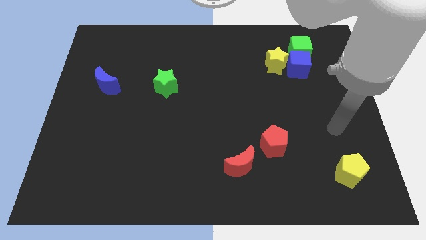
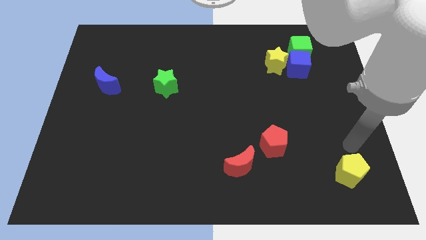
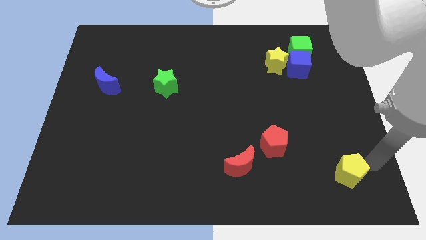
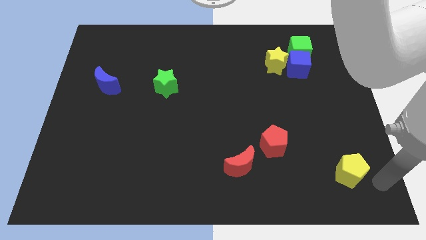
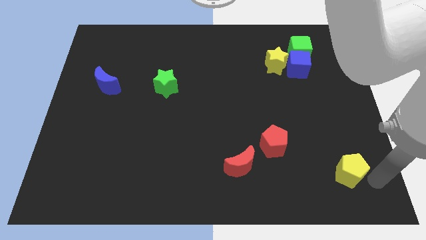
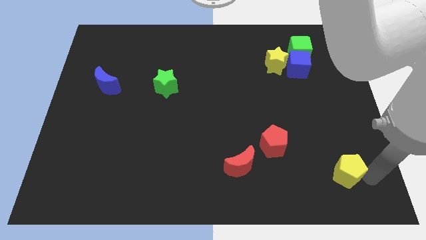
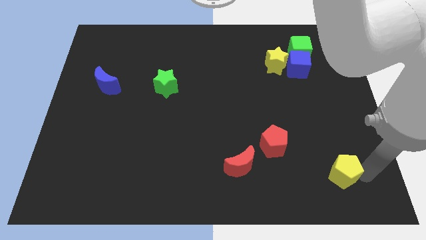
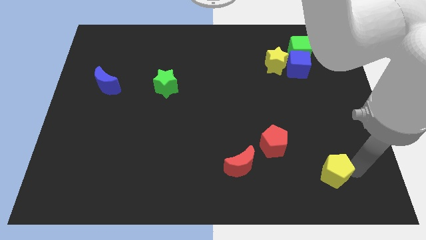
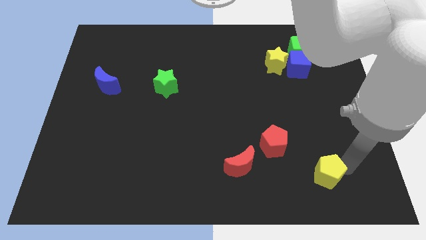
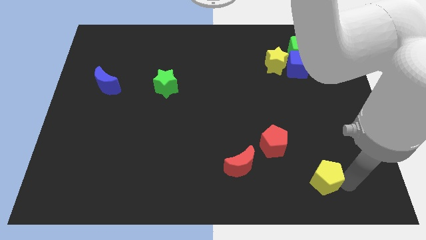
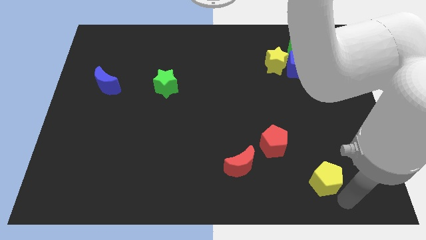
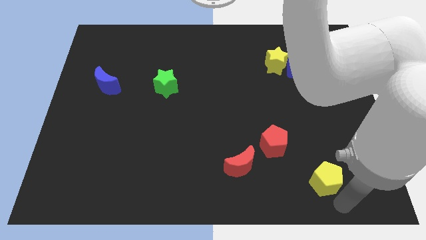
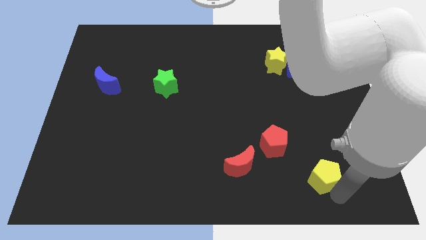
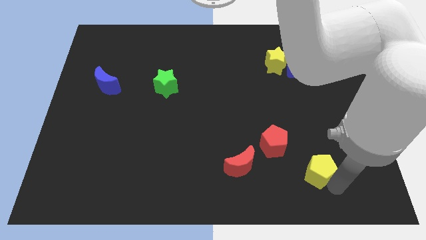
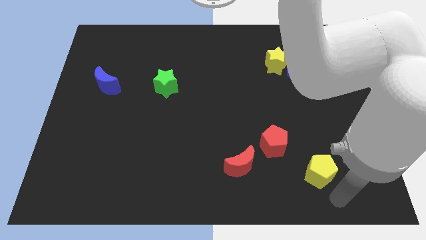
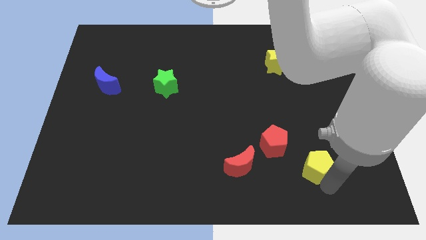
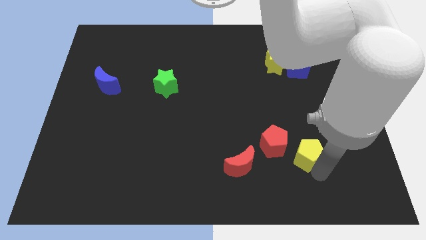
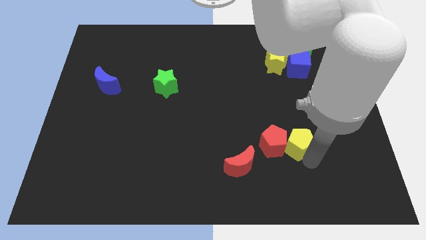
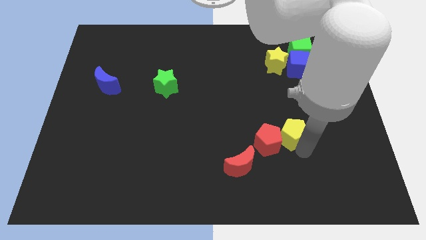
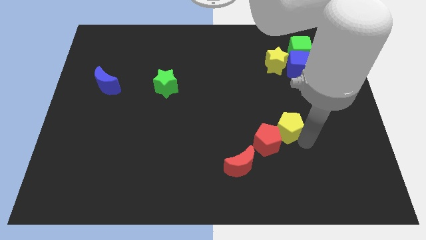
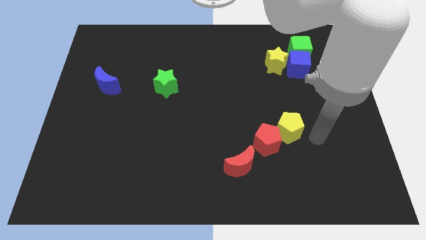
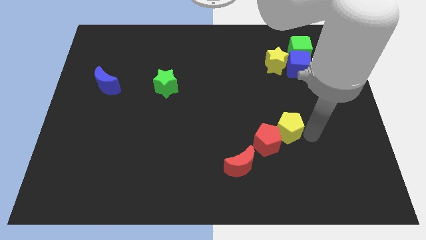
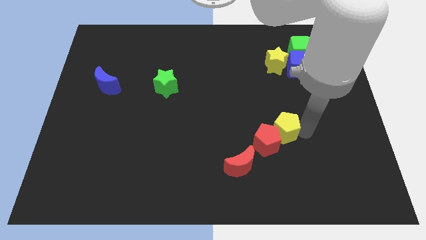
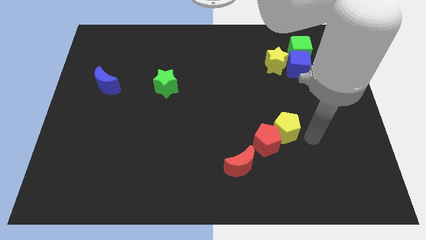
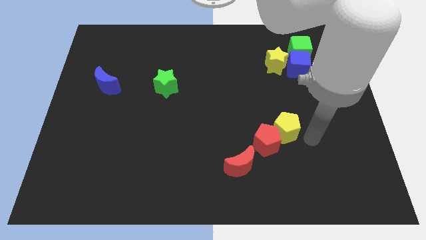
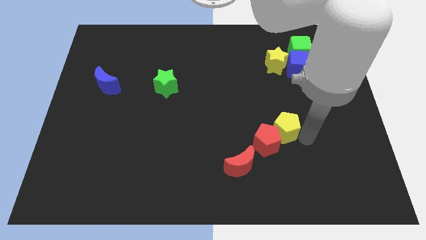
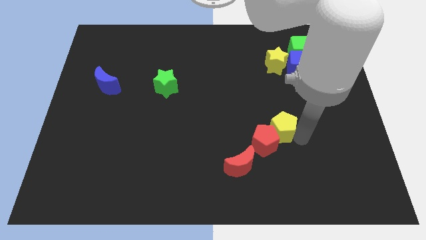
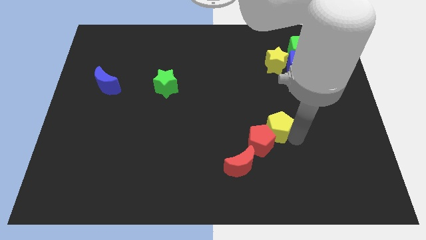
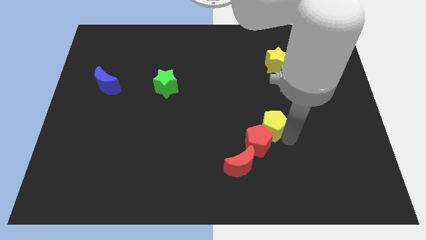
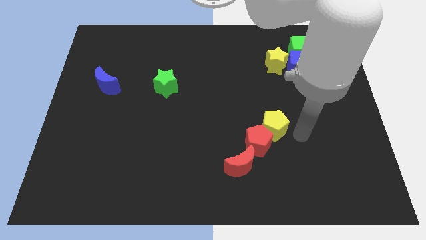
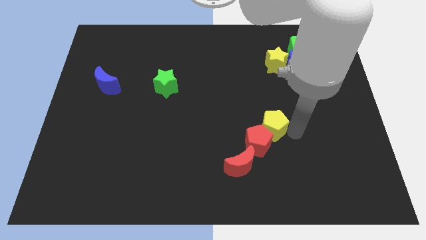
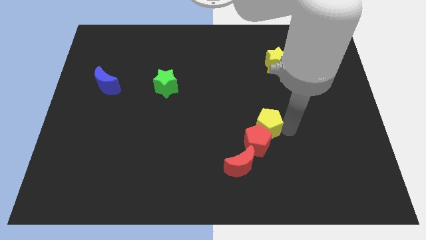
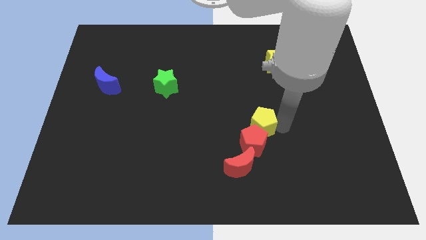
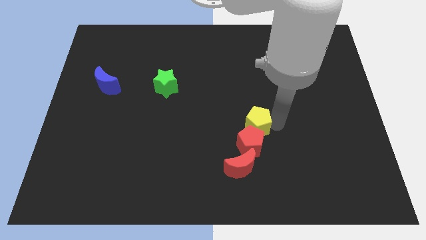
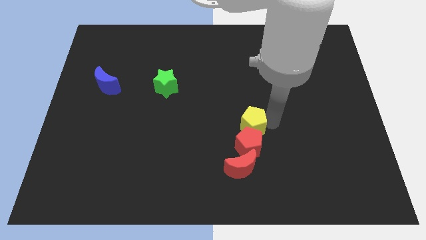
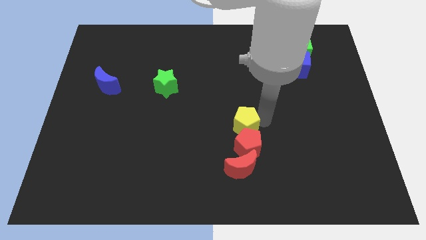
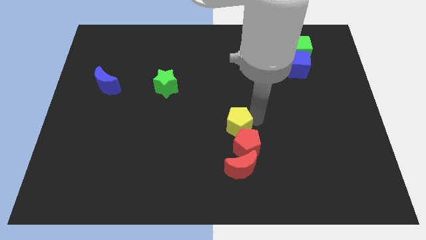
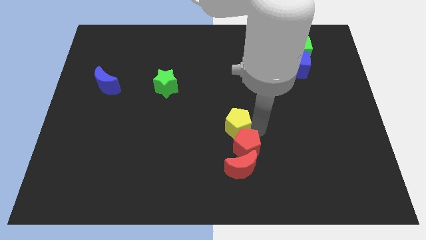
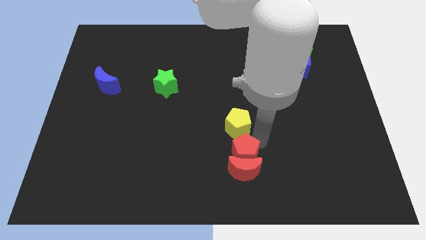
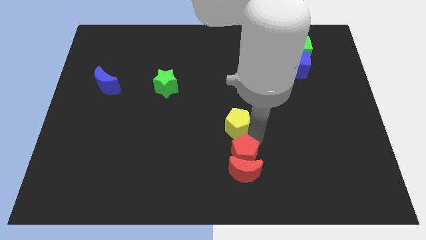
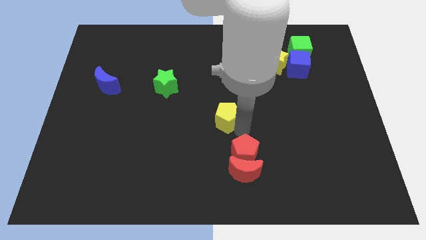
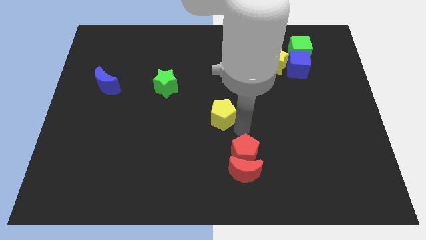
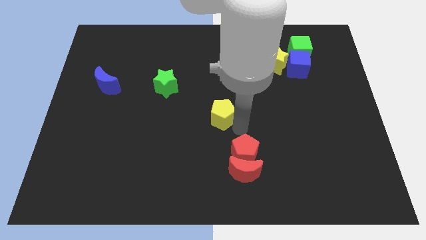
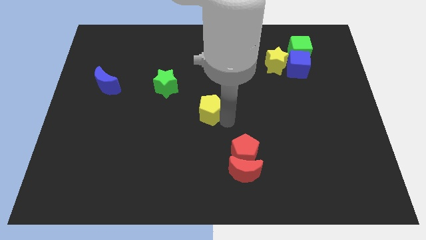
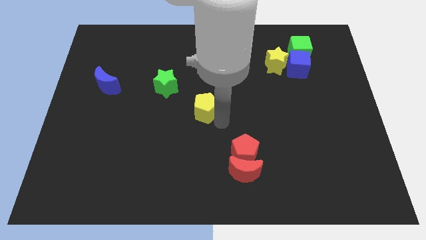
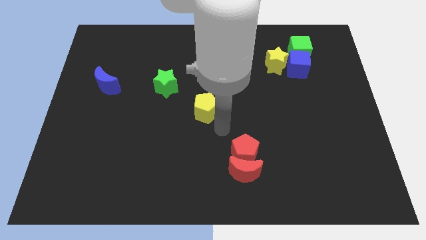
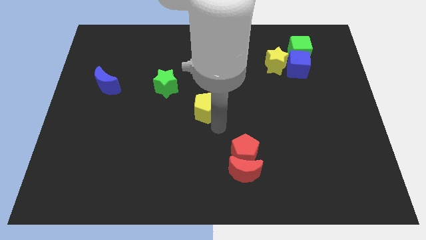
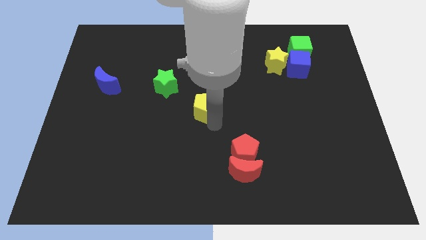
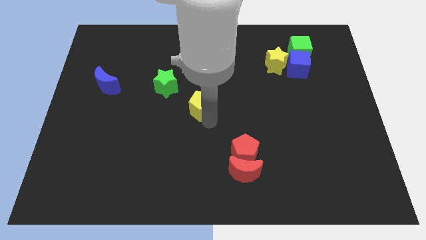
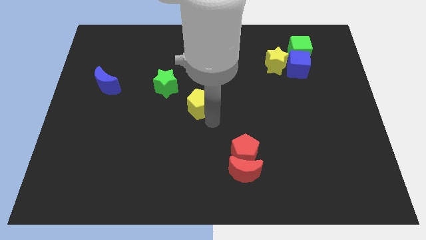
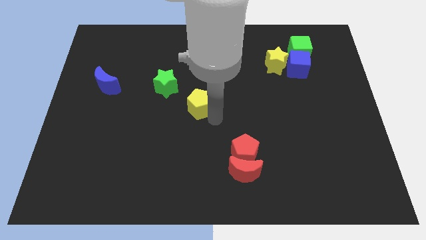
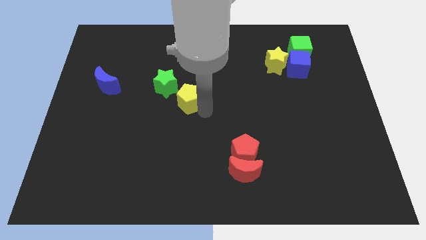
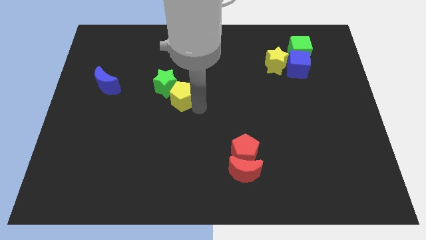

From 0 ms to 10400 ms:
push the yellow pentagon towards the green star

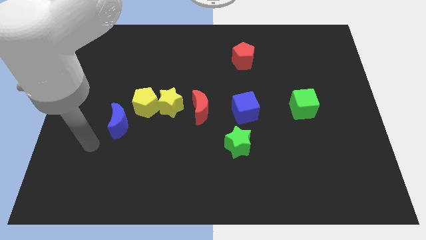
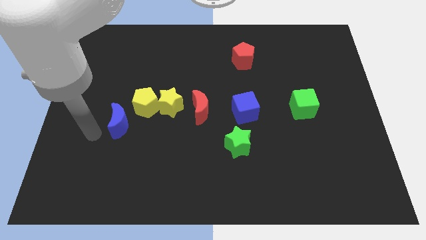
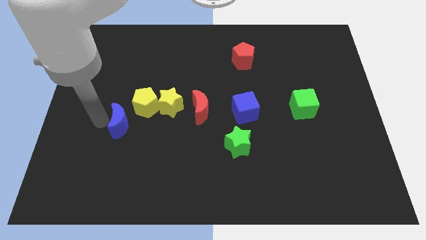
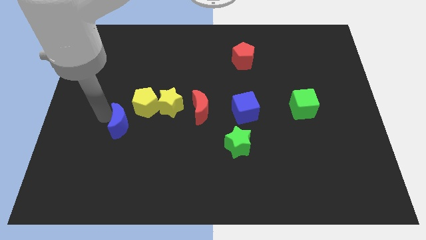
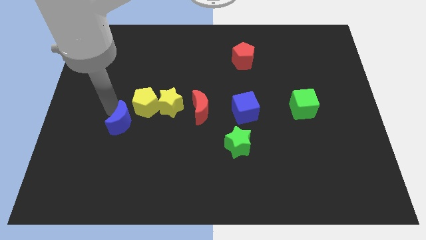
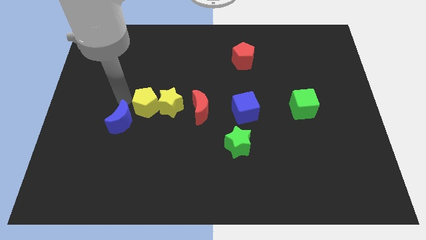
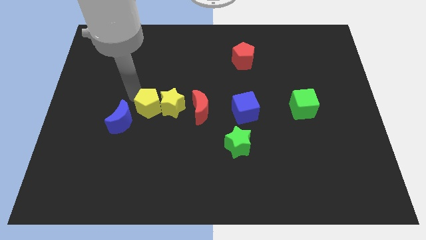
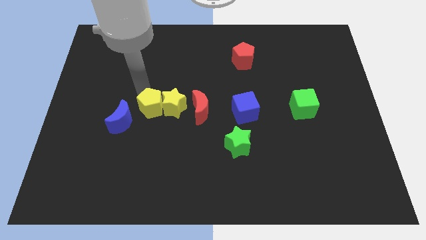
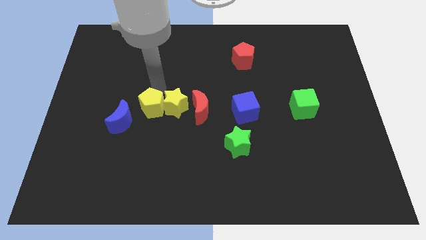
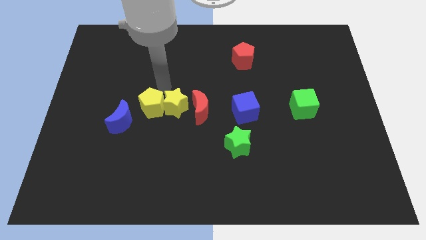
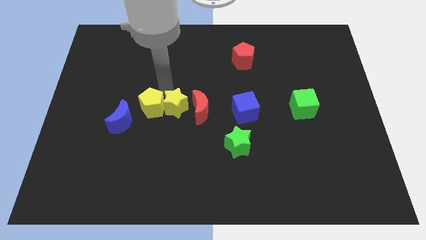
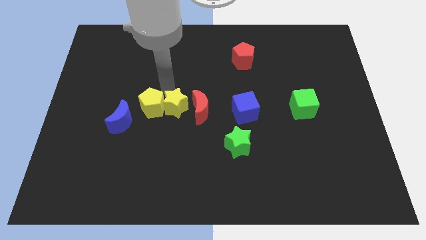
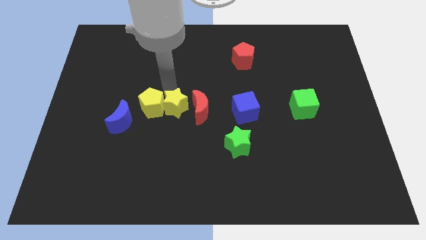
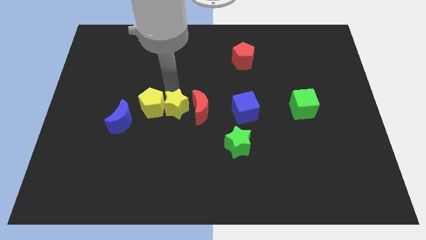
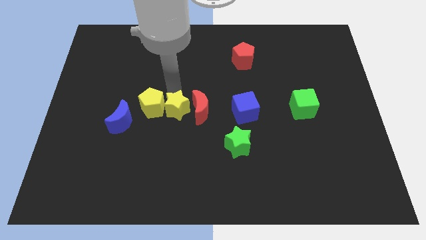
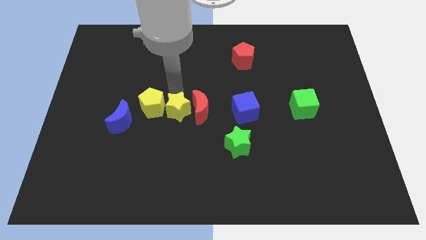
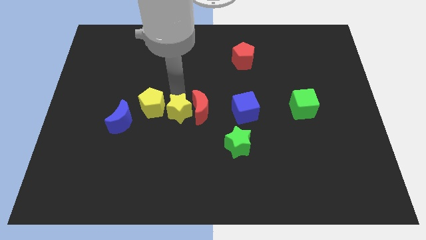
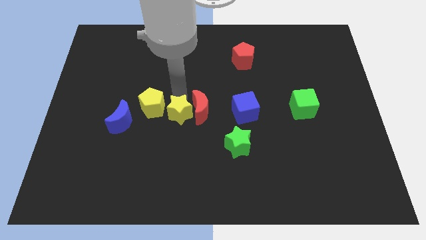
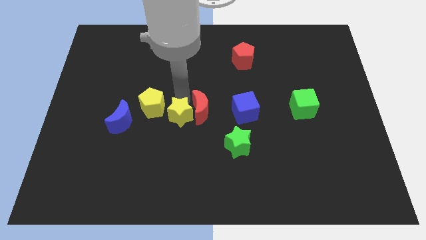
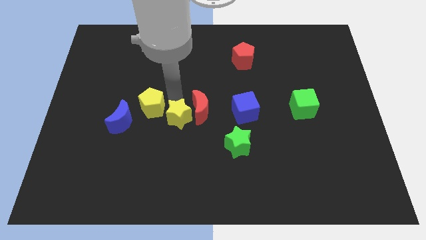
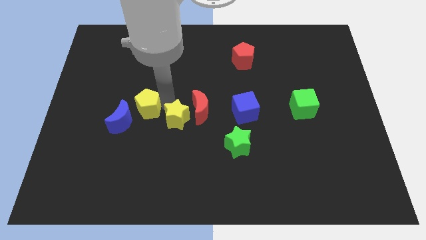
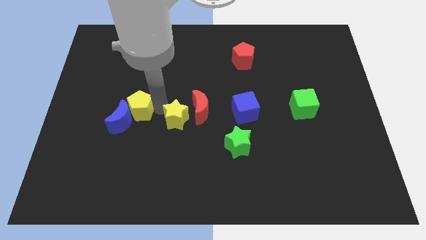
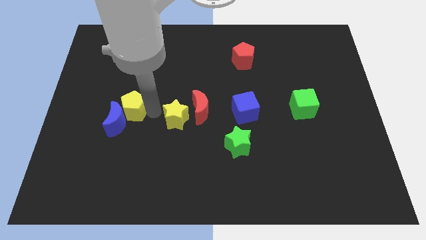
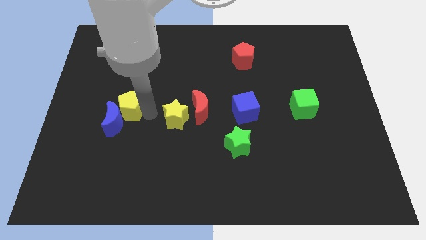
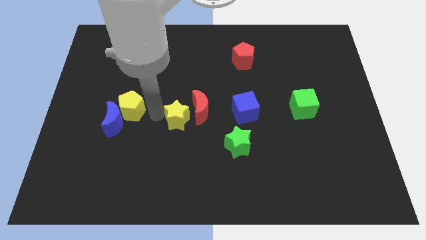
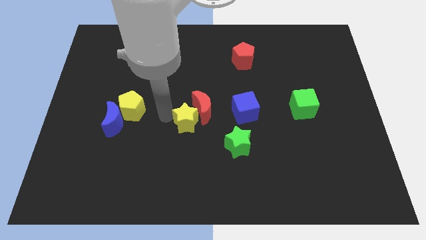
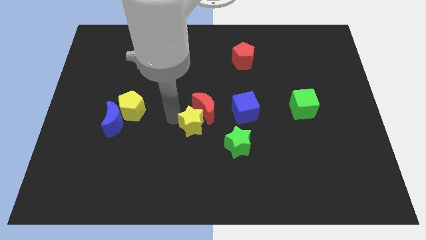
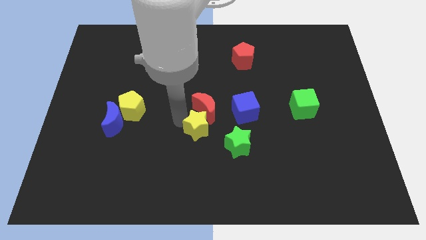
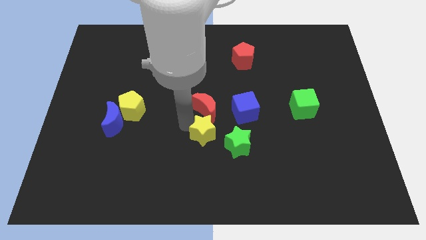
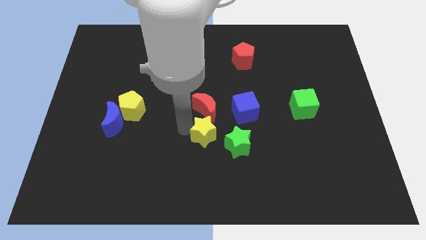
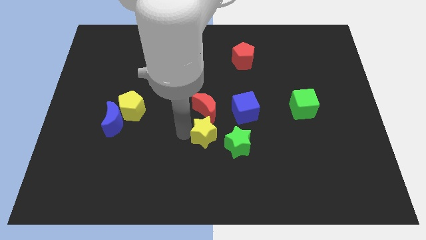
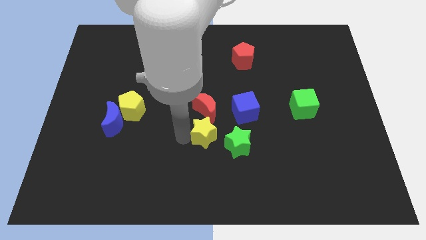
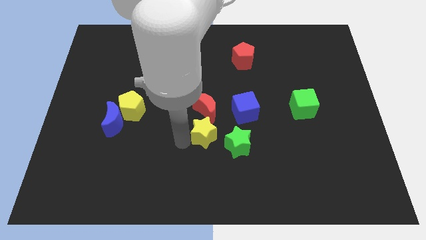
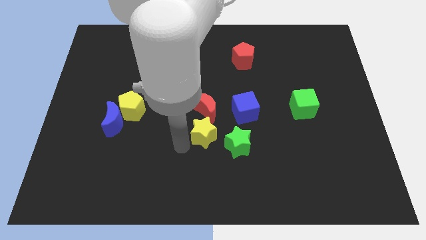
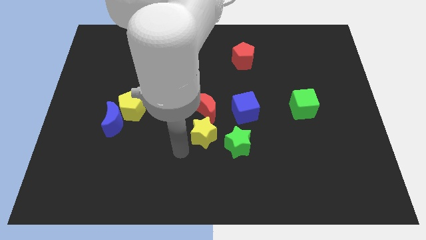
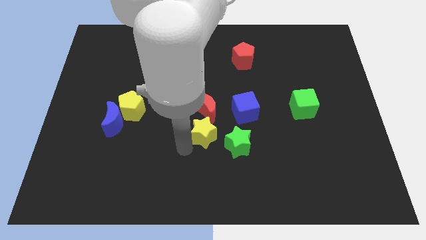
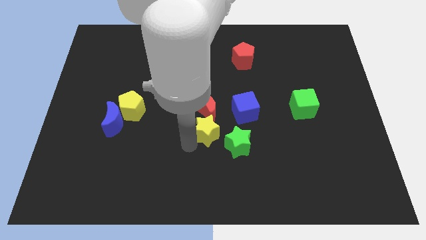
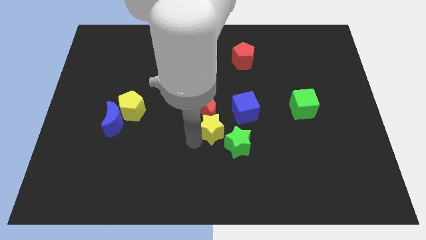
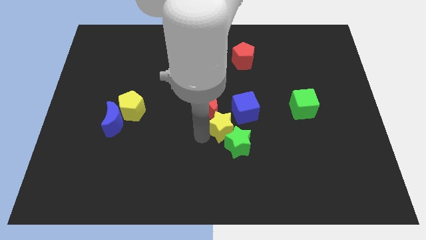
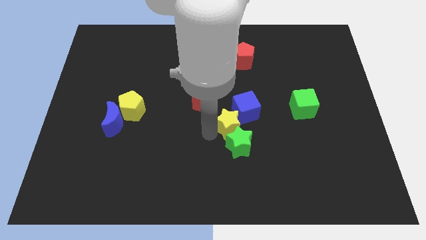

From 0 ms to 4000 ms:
put the yellow star close to the blue cube
